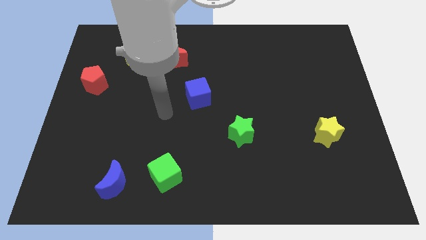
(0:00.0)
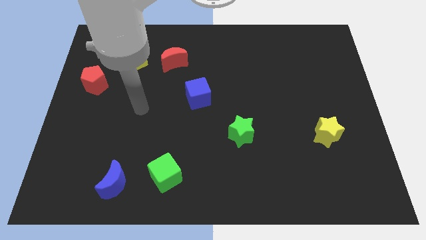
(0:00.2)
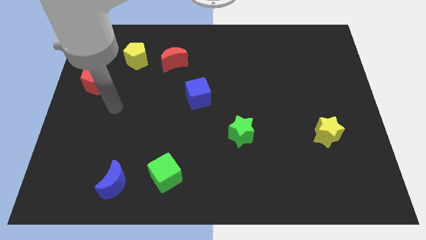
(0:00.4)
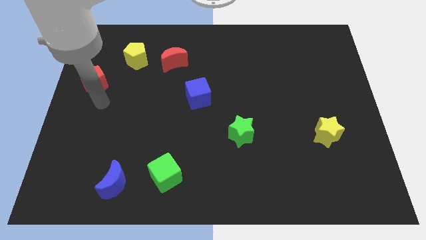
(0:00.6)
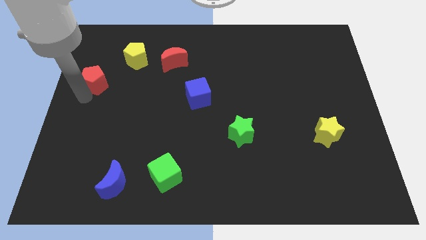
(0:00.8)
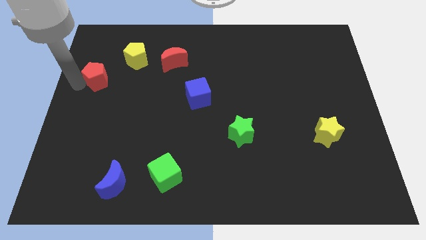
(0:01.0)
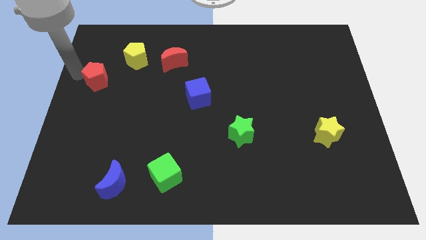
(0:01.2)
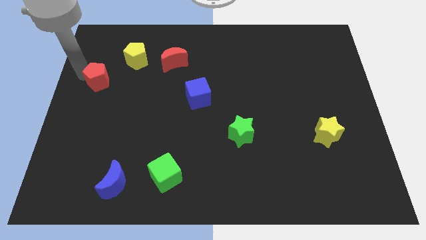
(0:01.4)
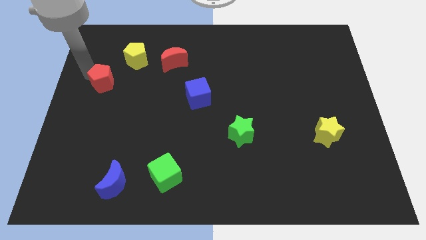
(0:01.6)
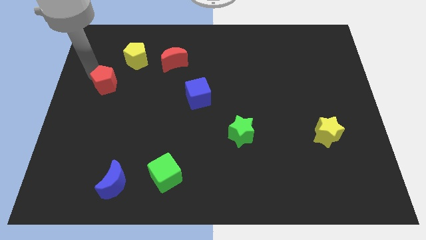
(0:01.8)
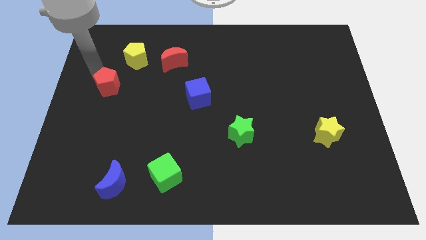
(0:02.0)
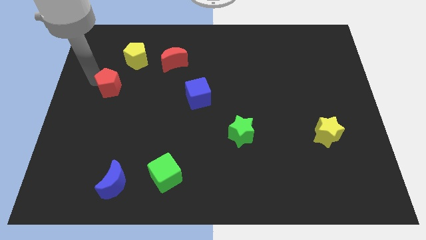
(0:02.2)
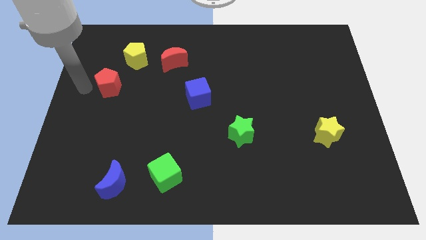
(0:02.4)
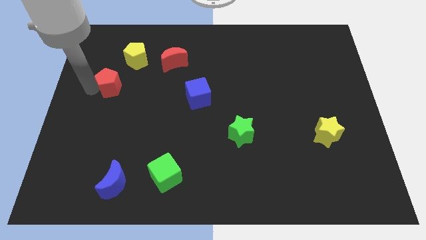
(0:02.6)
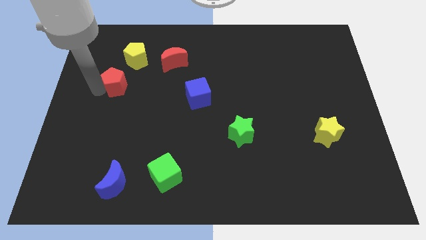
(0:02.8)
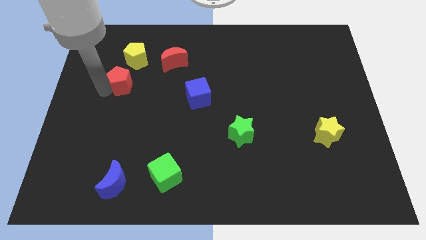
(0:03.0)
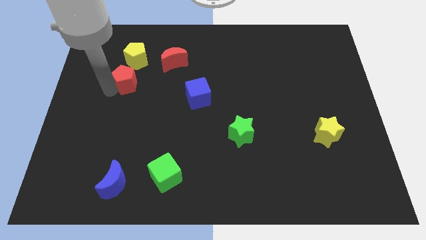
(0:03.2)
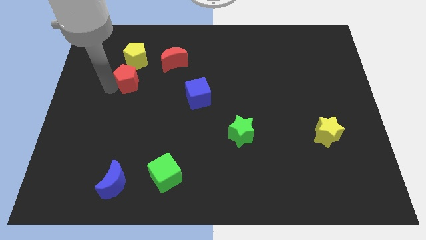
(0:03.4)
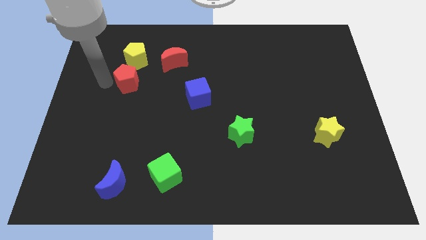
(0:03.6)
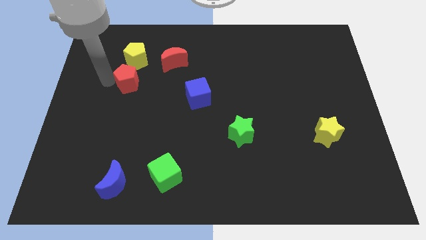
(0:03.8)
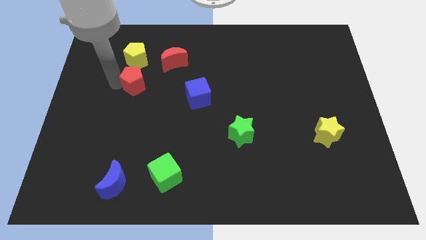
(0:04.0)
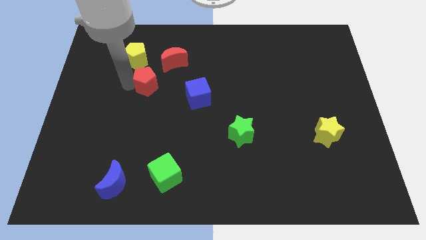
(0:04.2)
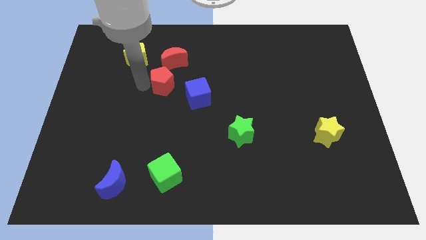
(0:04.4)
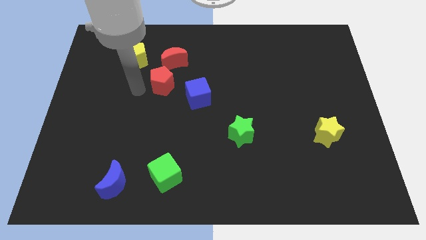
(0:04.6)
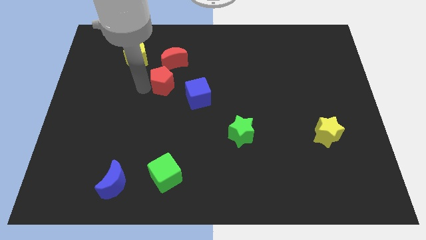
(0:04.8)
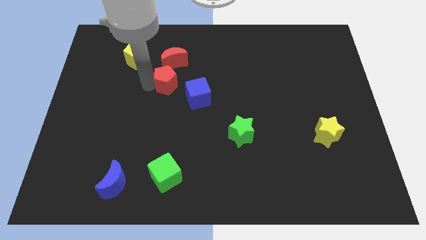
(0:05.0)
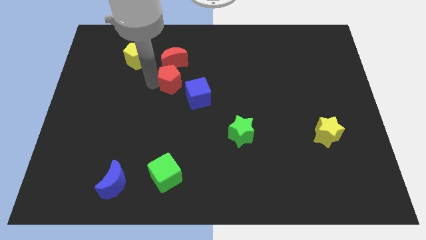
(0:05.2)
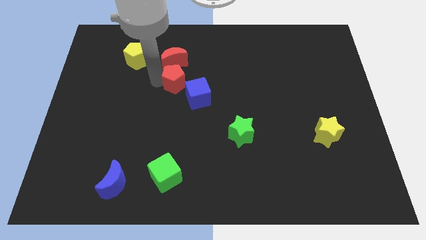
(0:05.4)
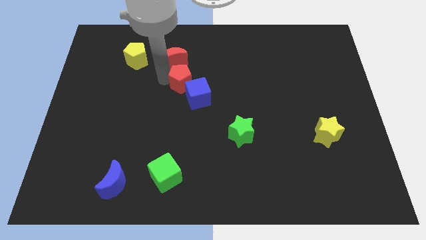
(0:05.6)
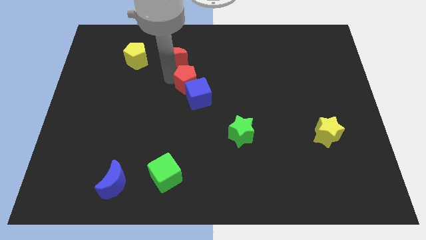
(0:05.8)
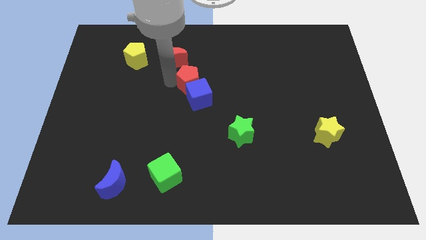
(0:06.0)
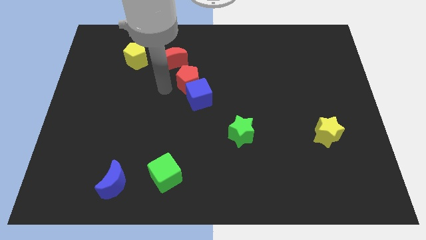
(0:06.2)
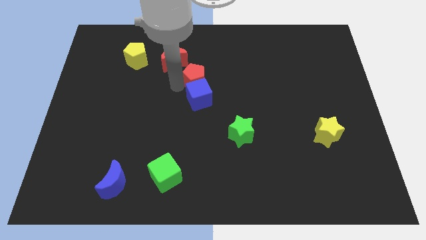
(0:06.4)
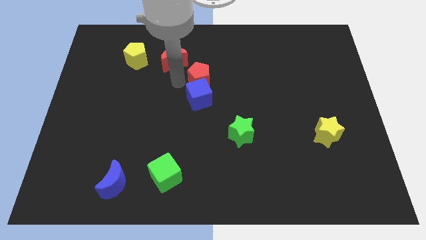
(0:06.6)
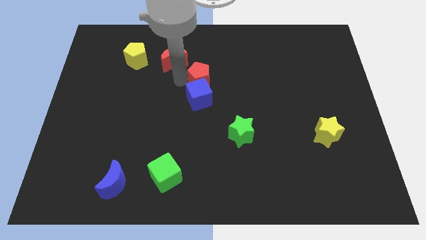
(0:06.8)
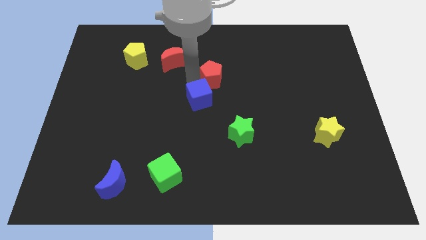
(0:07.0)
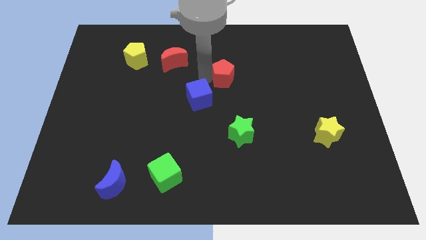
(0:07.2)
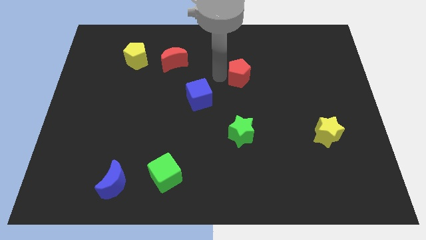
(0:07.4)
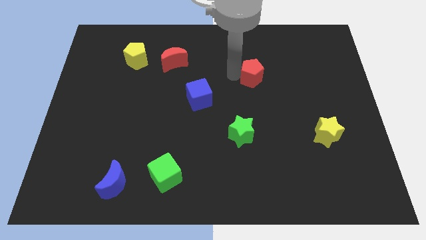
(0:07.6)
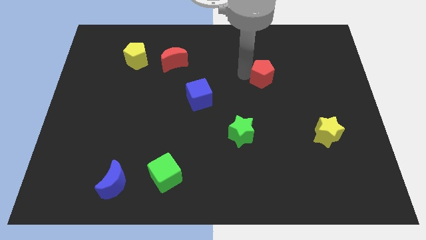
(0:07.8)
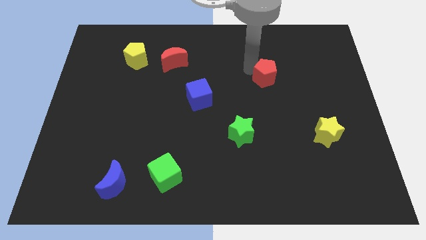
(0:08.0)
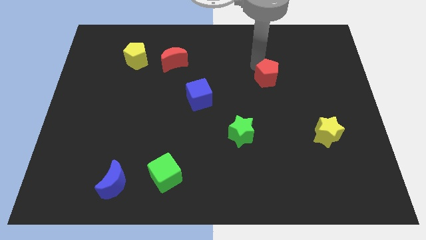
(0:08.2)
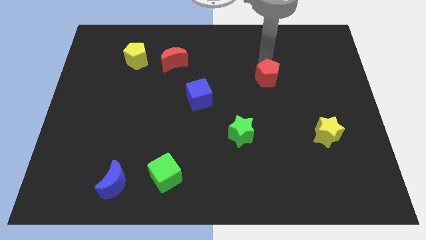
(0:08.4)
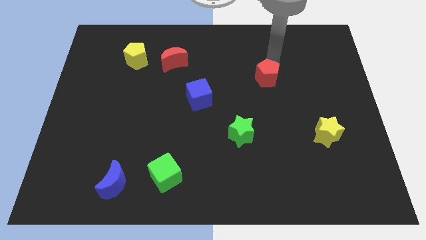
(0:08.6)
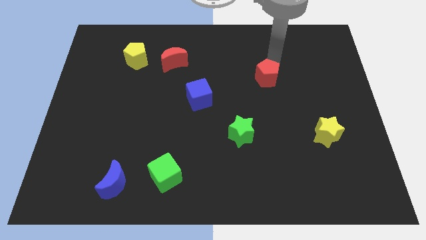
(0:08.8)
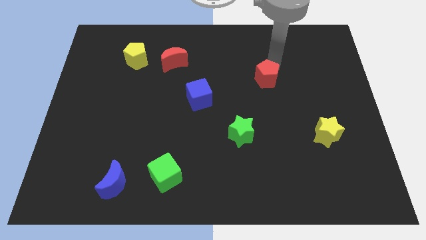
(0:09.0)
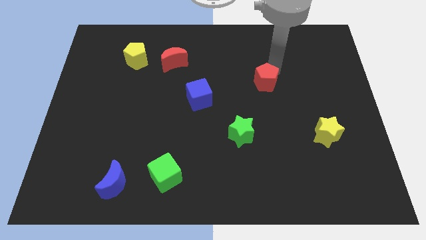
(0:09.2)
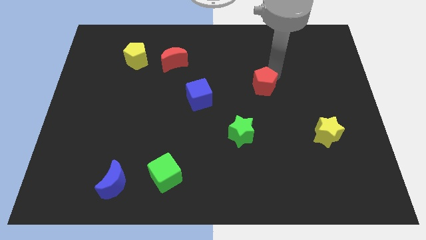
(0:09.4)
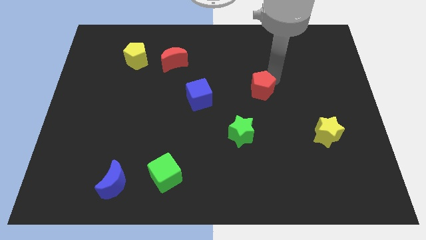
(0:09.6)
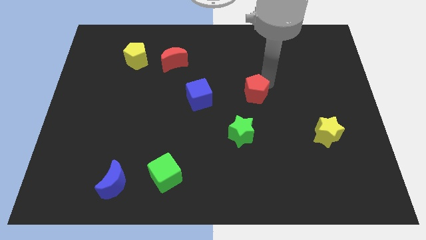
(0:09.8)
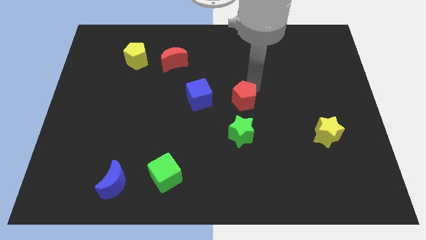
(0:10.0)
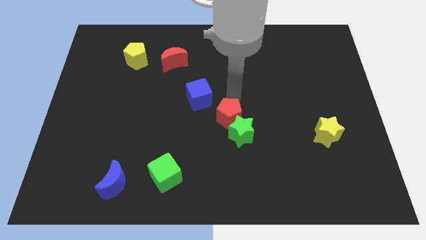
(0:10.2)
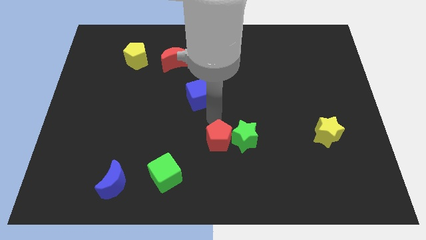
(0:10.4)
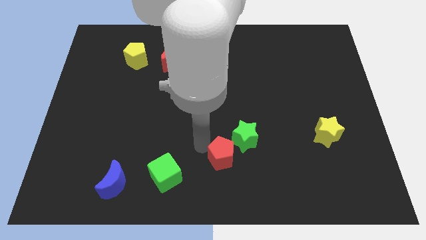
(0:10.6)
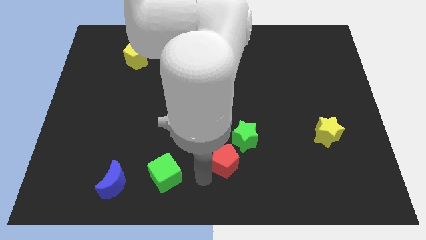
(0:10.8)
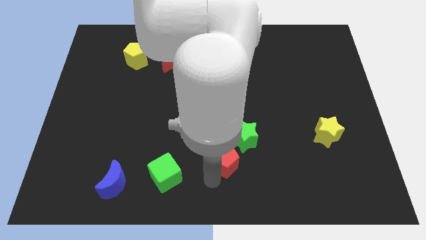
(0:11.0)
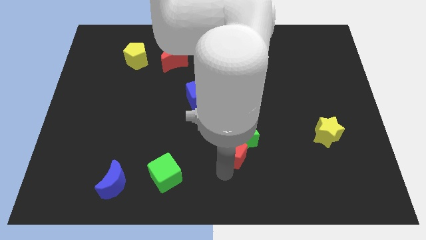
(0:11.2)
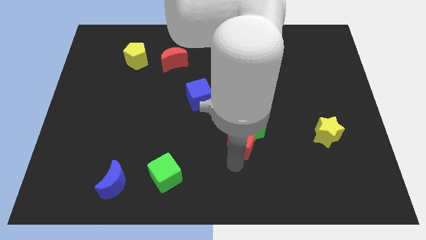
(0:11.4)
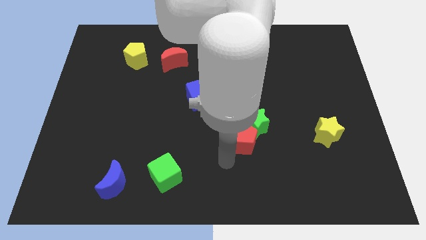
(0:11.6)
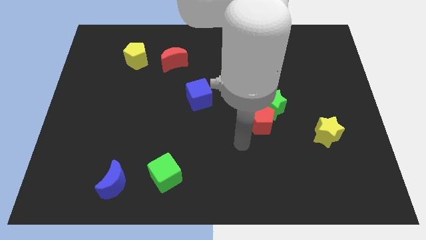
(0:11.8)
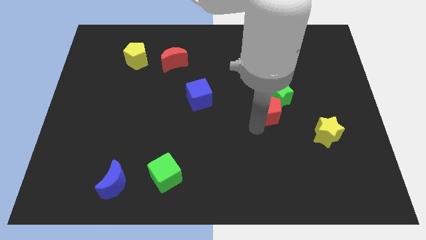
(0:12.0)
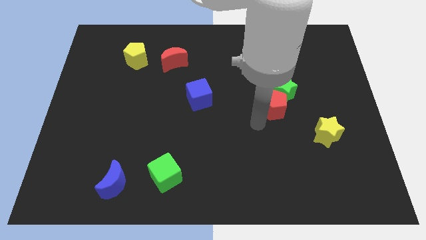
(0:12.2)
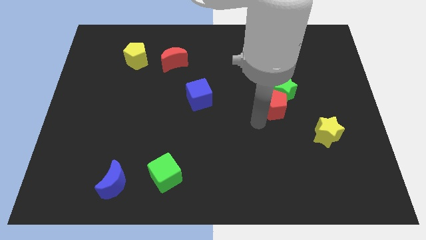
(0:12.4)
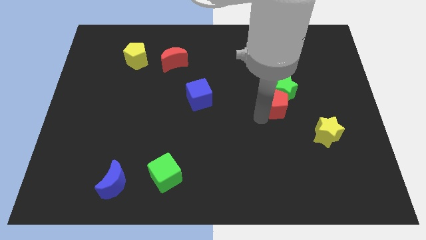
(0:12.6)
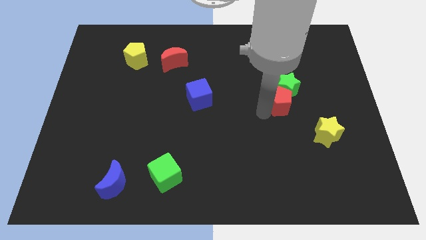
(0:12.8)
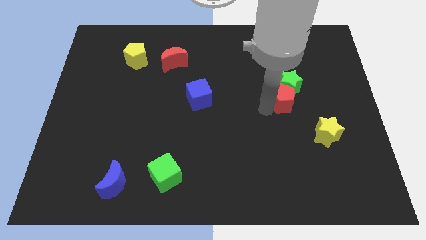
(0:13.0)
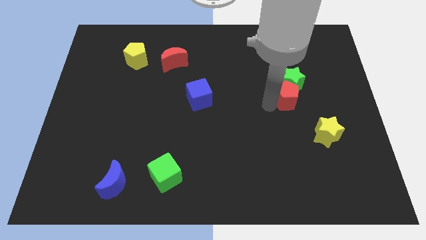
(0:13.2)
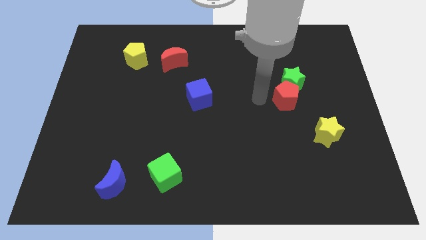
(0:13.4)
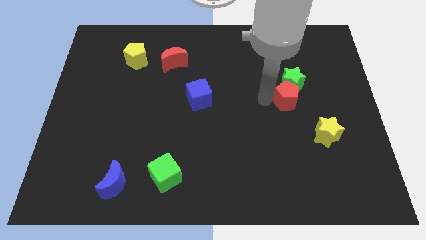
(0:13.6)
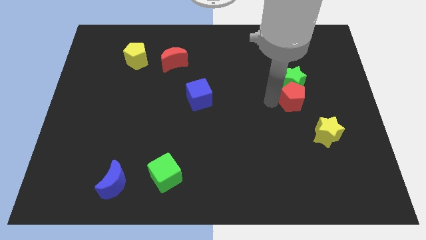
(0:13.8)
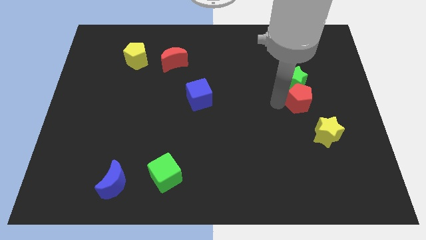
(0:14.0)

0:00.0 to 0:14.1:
push the red pentagon to the top of the yellow star
